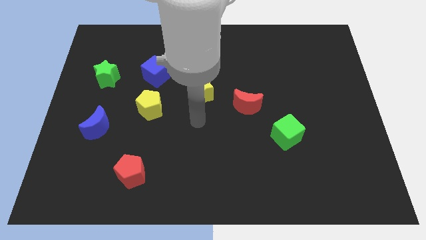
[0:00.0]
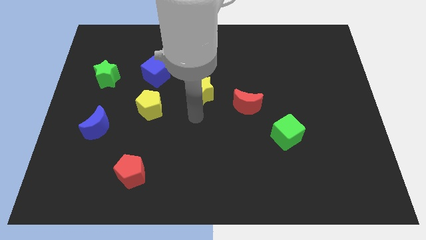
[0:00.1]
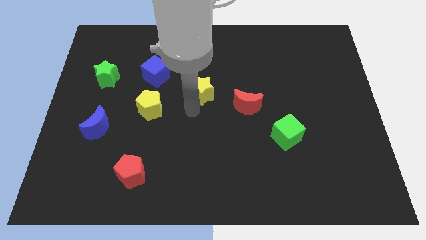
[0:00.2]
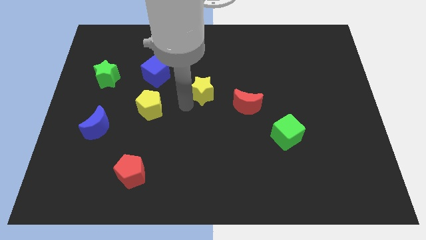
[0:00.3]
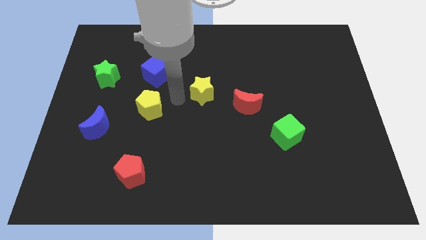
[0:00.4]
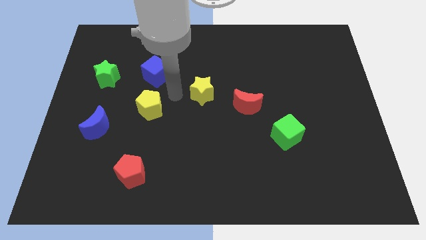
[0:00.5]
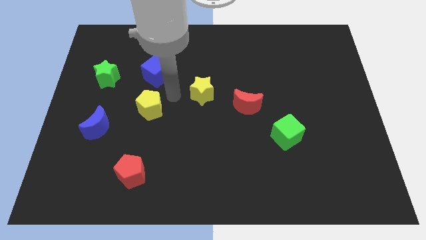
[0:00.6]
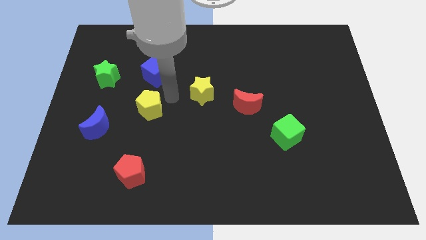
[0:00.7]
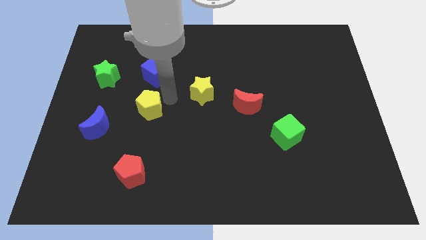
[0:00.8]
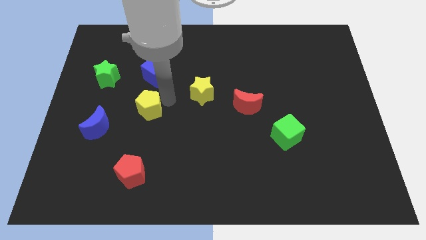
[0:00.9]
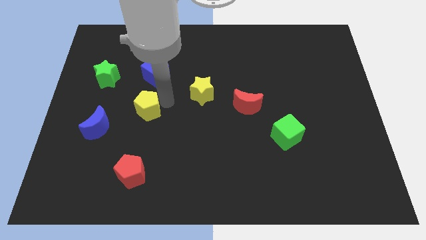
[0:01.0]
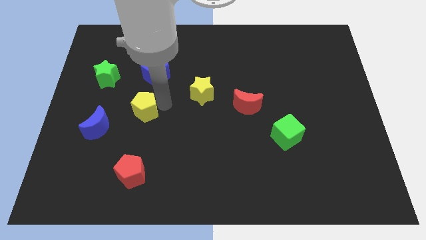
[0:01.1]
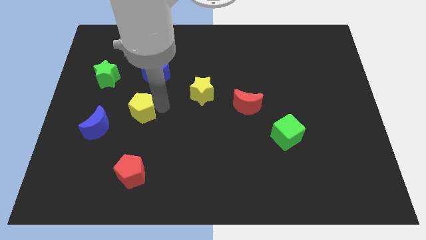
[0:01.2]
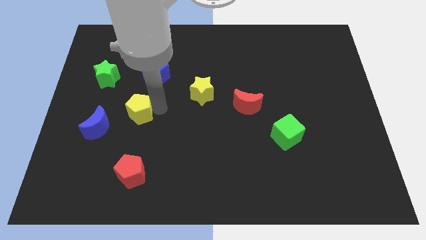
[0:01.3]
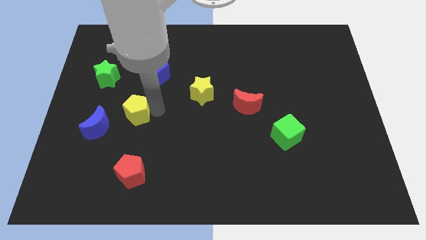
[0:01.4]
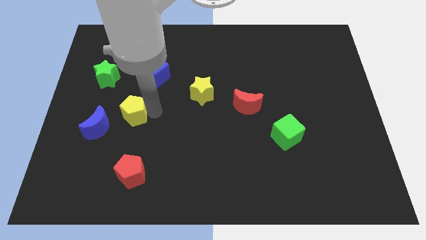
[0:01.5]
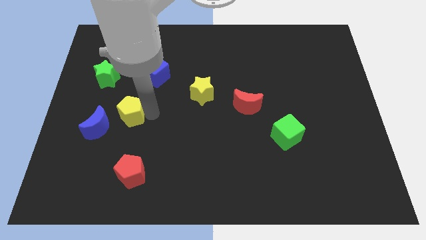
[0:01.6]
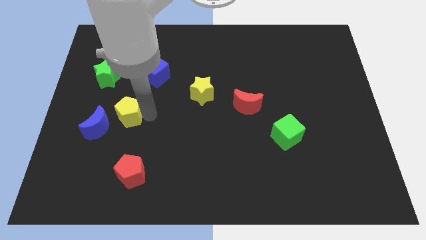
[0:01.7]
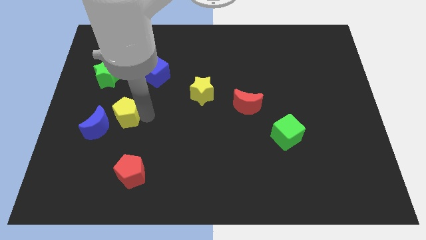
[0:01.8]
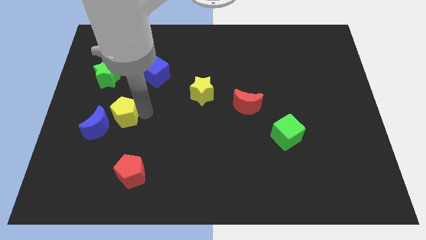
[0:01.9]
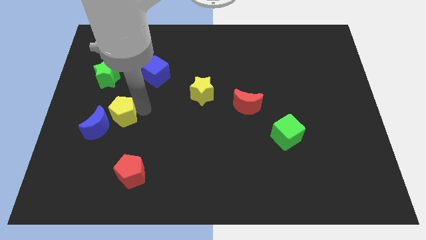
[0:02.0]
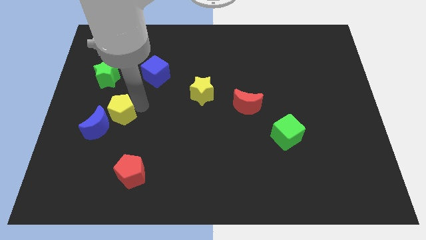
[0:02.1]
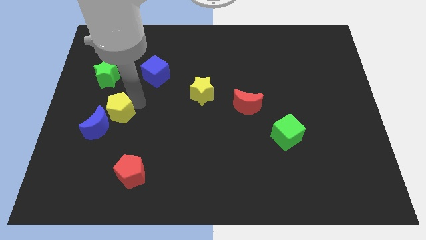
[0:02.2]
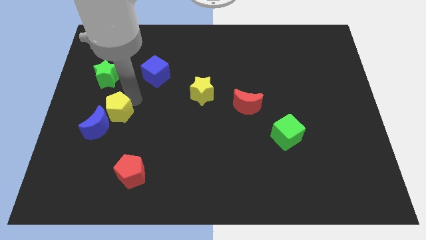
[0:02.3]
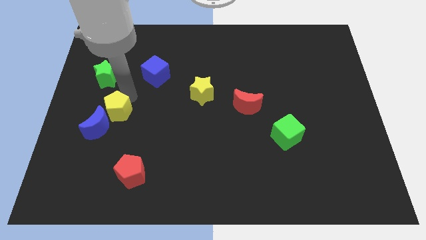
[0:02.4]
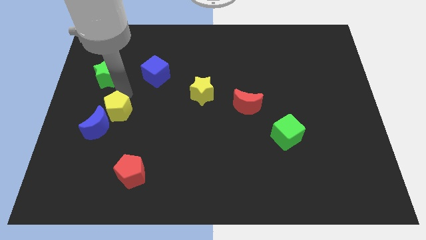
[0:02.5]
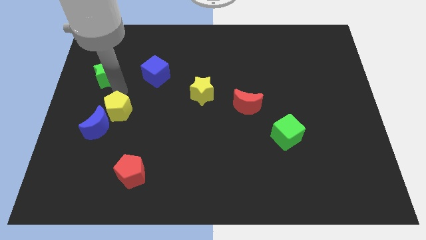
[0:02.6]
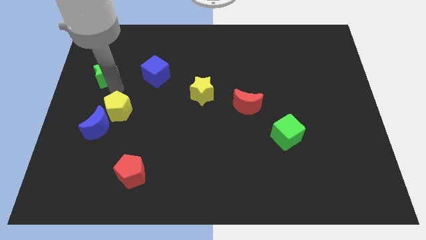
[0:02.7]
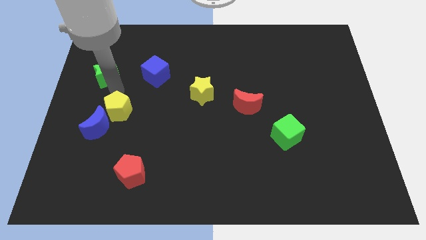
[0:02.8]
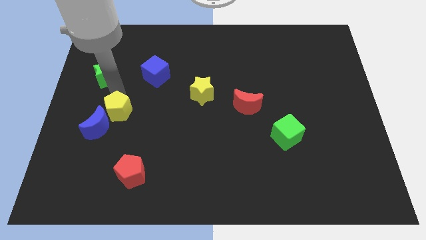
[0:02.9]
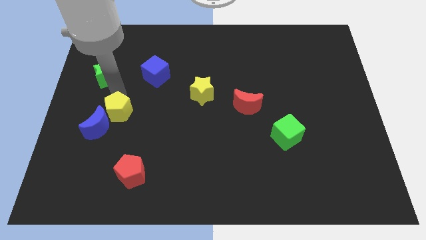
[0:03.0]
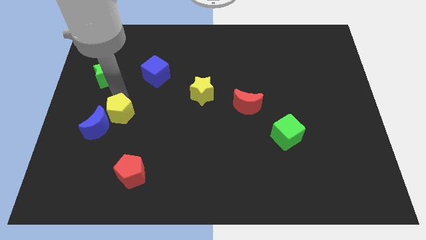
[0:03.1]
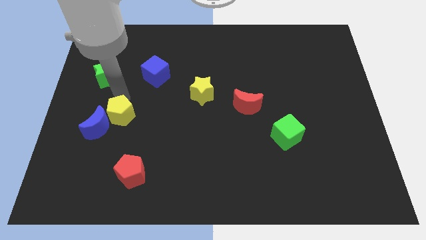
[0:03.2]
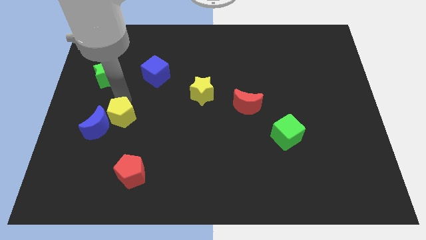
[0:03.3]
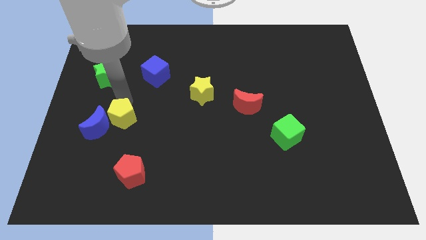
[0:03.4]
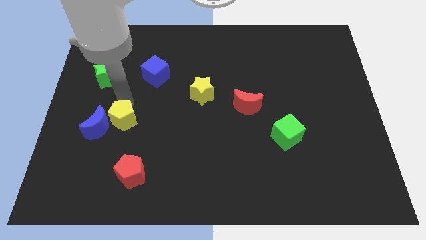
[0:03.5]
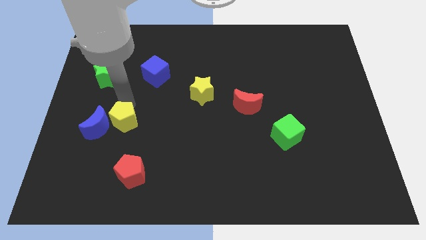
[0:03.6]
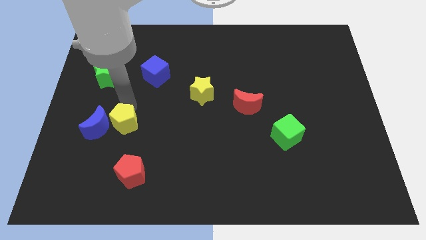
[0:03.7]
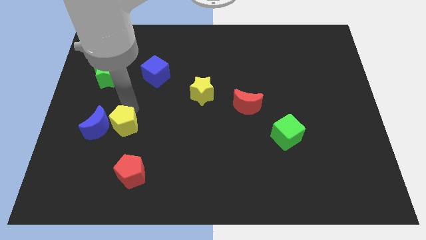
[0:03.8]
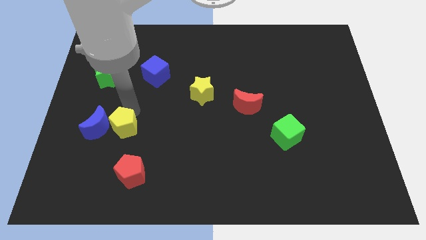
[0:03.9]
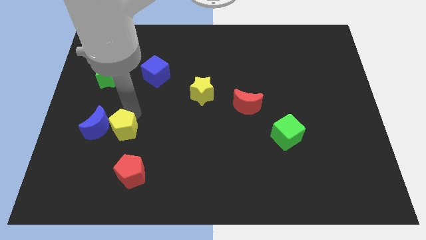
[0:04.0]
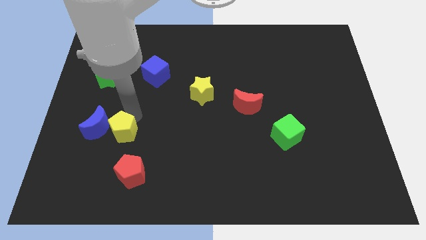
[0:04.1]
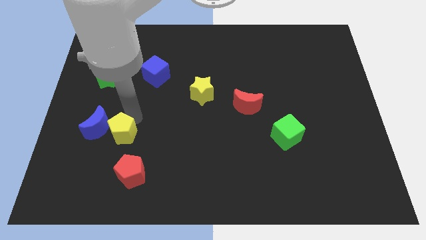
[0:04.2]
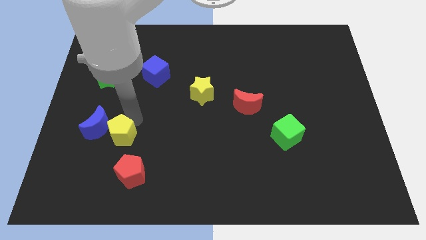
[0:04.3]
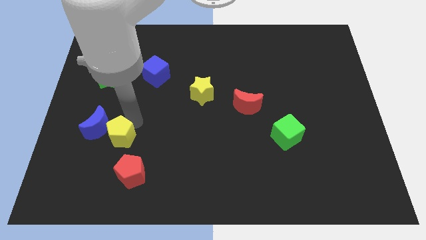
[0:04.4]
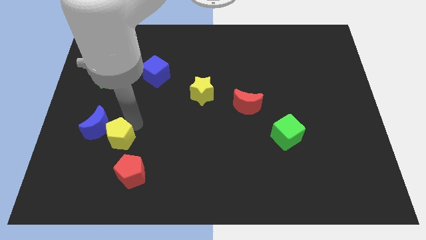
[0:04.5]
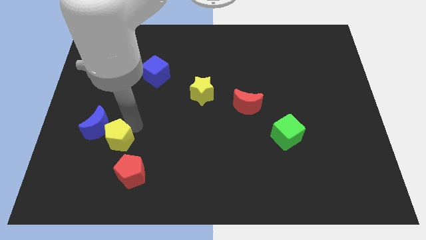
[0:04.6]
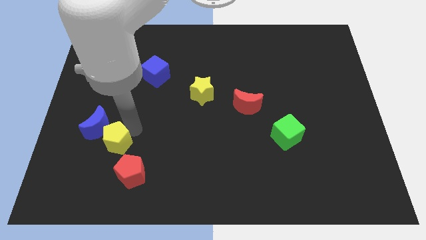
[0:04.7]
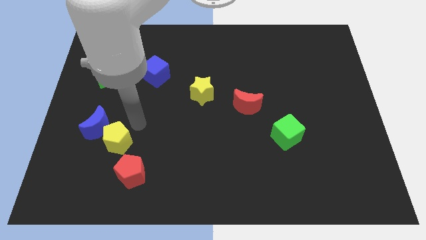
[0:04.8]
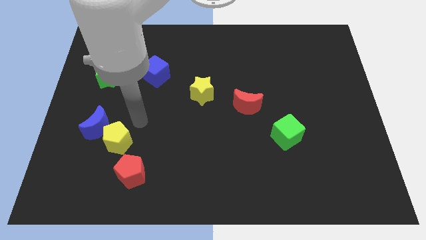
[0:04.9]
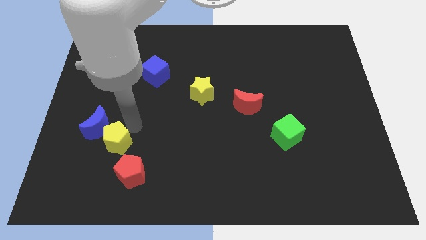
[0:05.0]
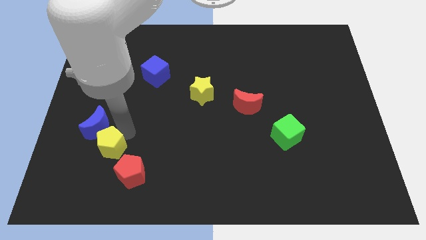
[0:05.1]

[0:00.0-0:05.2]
put the yellow pentagon to the bottom side of the blue moon

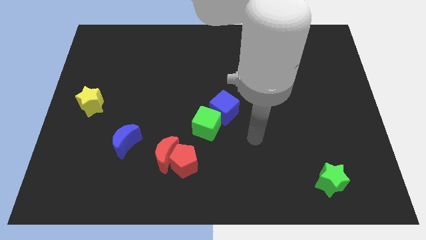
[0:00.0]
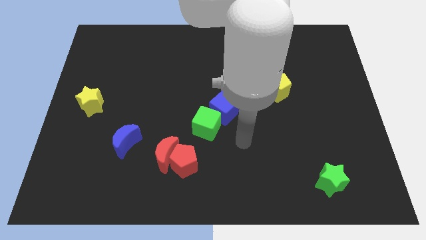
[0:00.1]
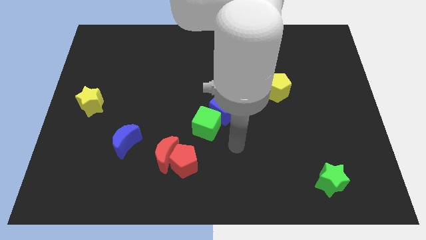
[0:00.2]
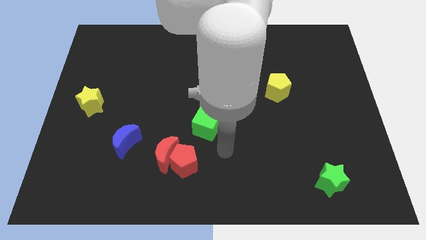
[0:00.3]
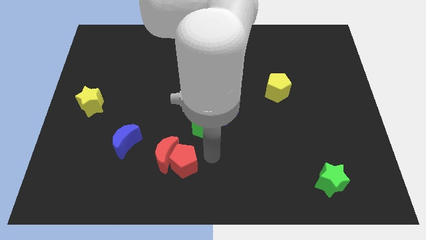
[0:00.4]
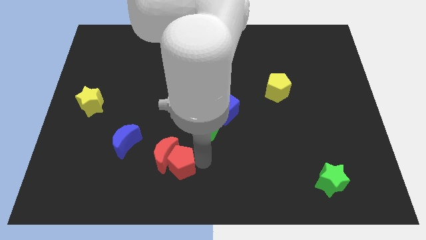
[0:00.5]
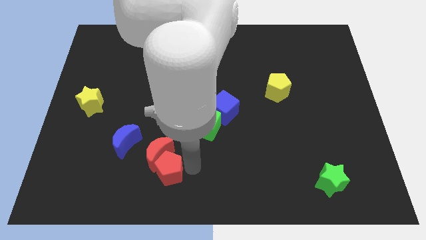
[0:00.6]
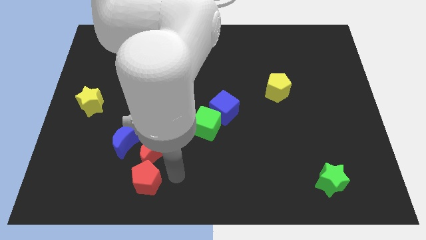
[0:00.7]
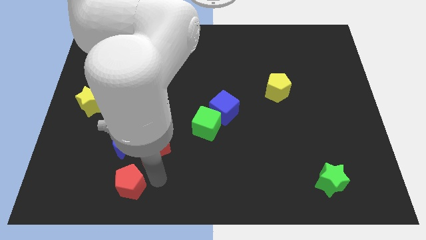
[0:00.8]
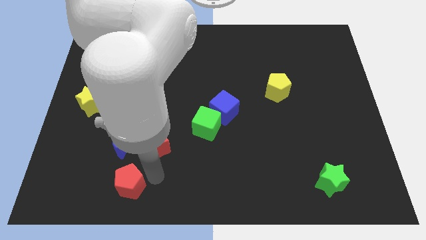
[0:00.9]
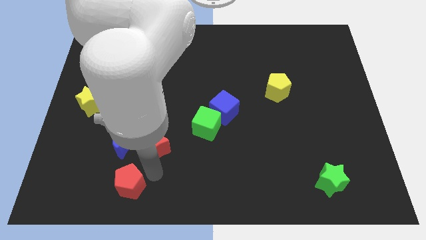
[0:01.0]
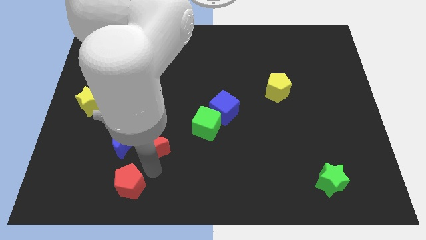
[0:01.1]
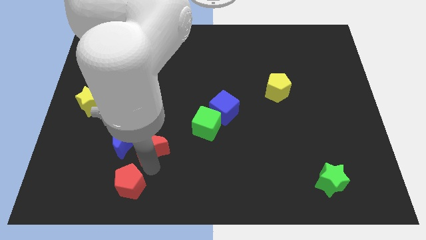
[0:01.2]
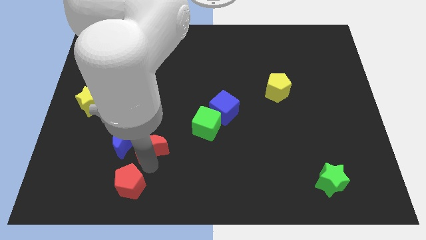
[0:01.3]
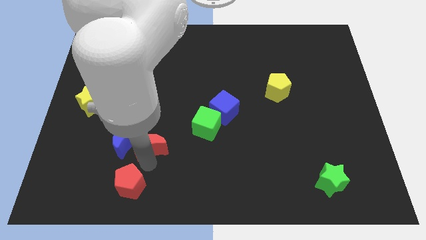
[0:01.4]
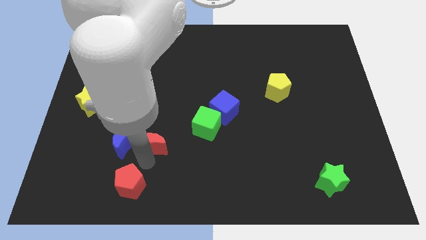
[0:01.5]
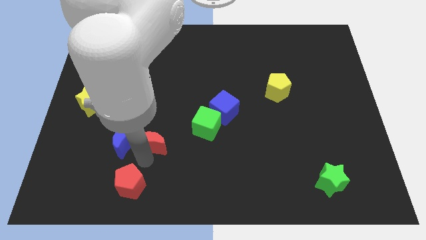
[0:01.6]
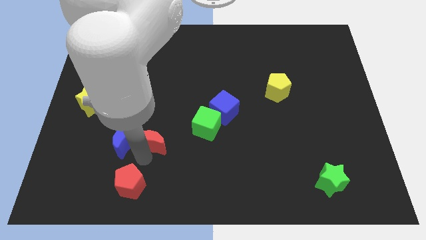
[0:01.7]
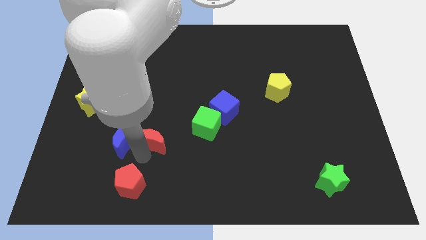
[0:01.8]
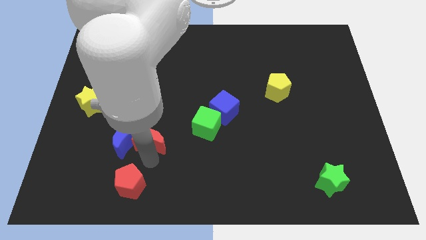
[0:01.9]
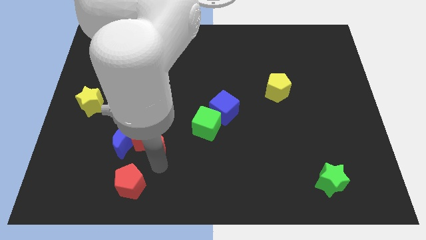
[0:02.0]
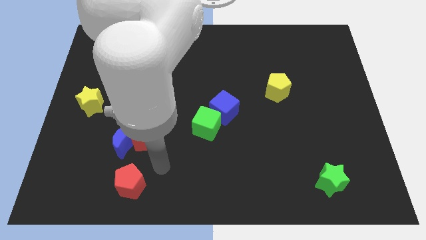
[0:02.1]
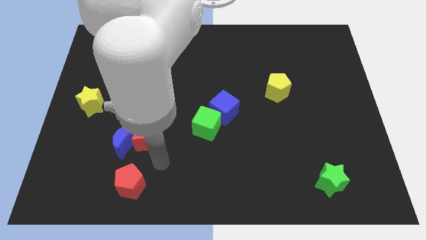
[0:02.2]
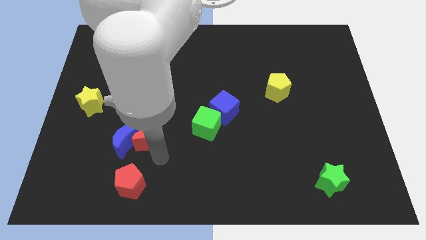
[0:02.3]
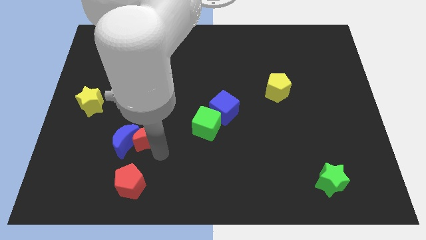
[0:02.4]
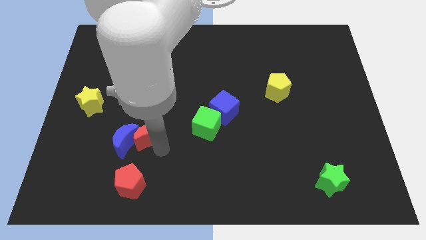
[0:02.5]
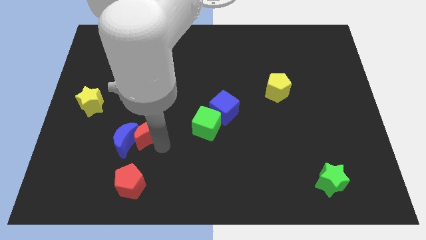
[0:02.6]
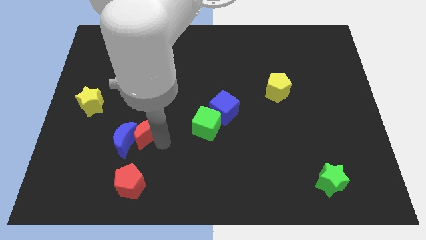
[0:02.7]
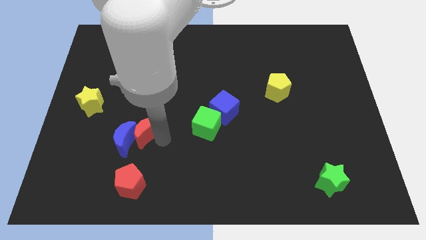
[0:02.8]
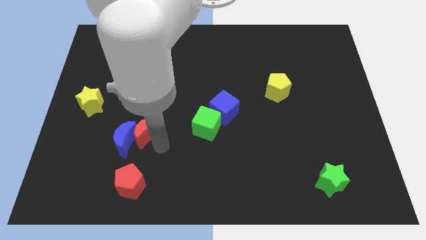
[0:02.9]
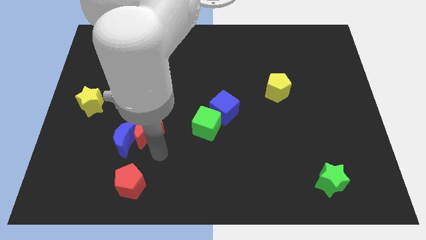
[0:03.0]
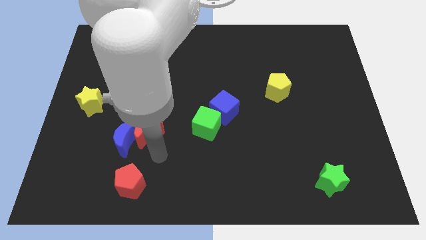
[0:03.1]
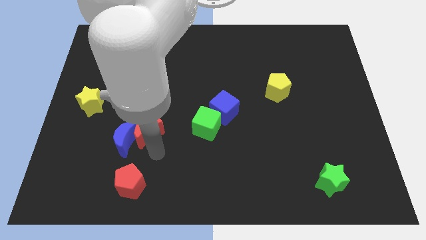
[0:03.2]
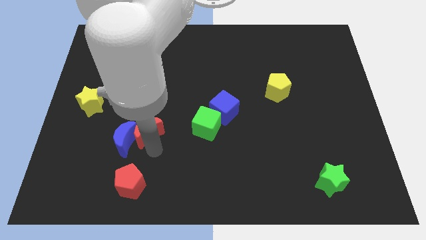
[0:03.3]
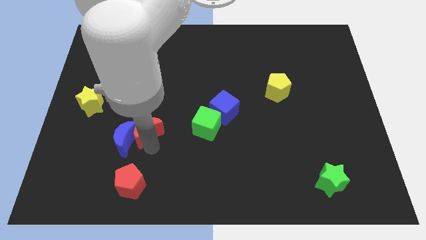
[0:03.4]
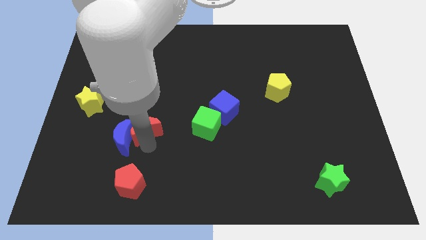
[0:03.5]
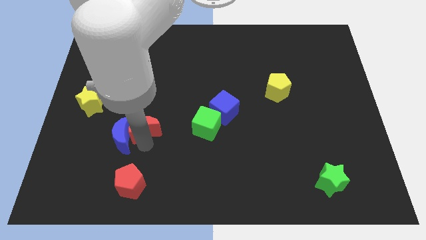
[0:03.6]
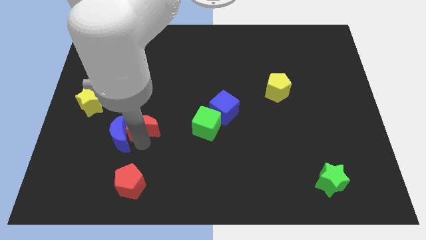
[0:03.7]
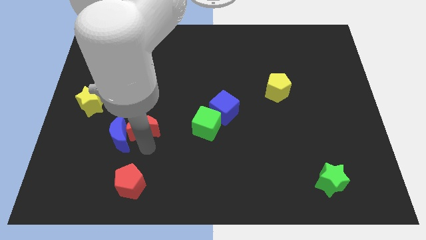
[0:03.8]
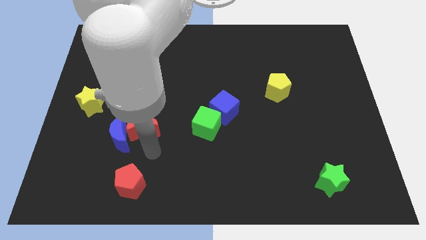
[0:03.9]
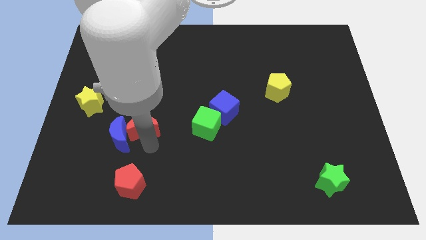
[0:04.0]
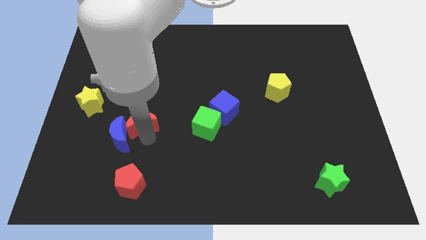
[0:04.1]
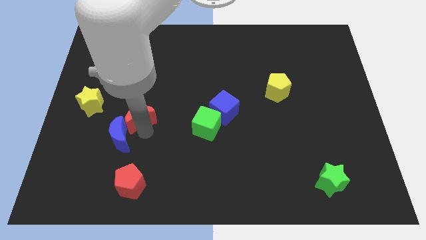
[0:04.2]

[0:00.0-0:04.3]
push the red moon to the right of the yellow star
